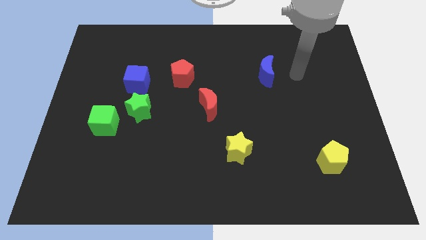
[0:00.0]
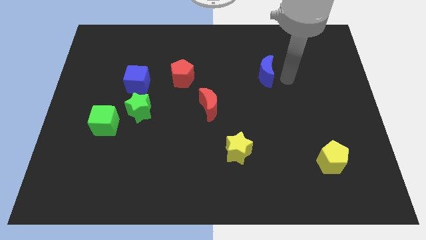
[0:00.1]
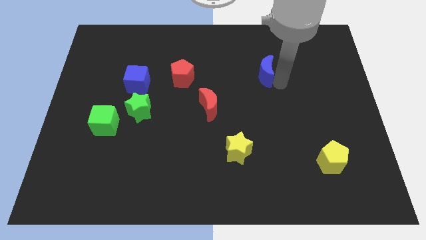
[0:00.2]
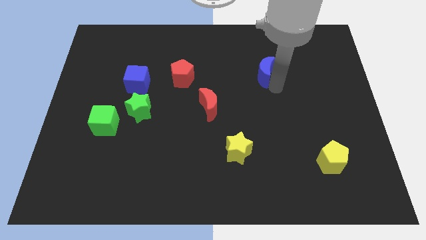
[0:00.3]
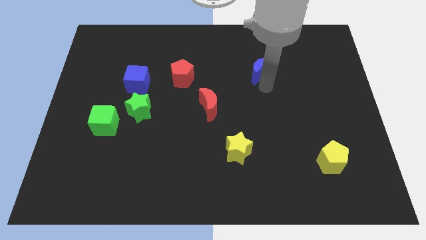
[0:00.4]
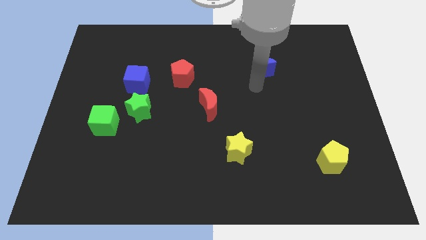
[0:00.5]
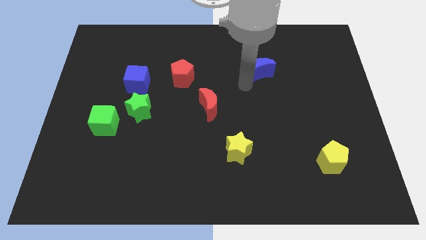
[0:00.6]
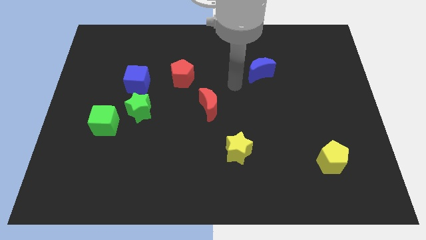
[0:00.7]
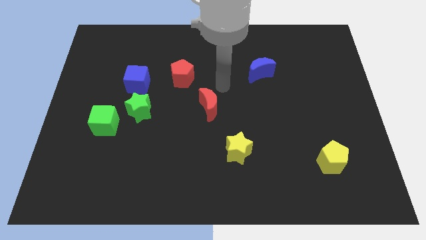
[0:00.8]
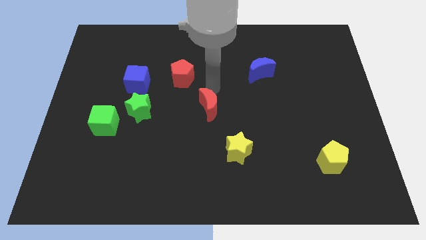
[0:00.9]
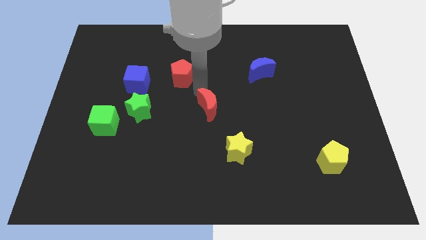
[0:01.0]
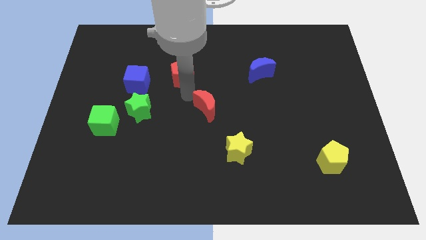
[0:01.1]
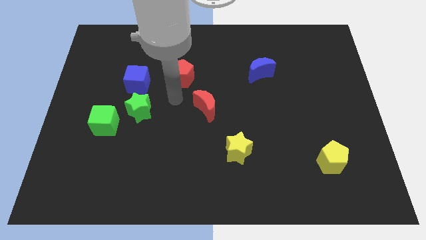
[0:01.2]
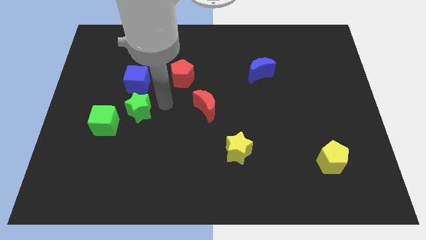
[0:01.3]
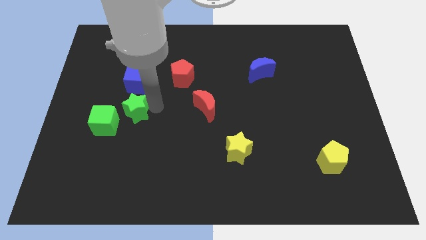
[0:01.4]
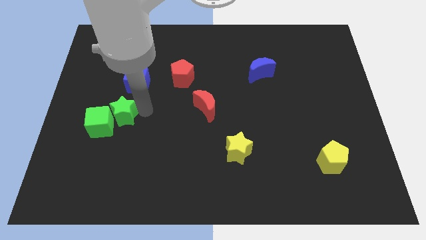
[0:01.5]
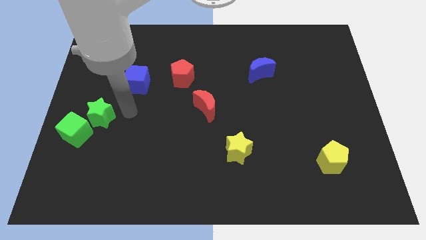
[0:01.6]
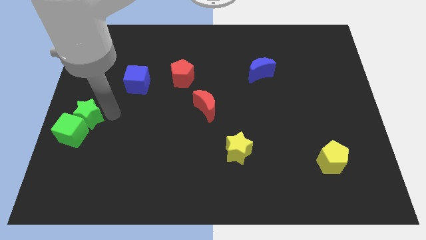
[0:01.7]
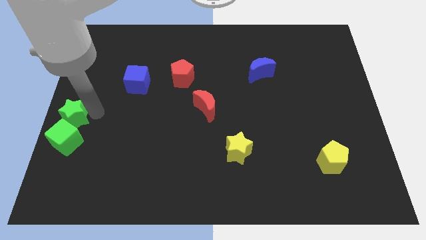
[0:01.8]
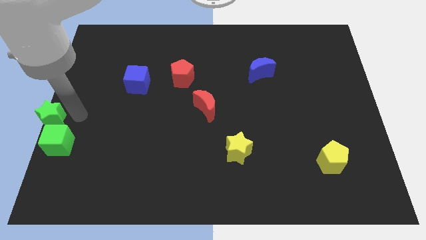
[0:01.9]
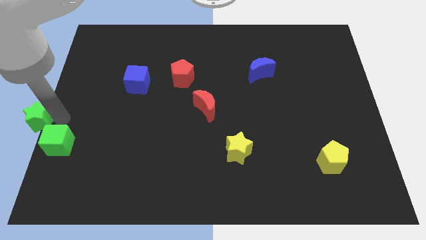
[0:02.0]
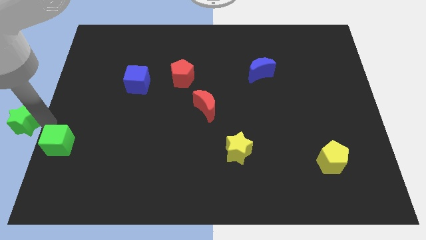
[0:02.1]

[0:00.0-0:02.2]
pull the green cube apart from the green star

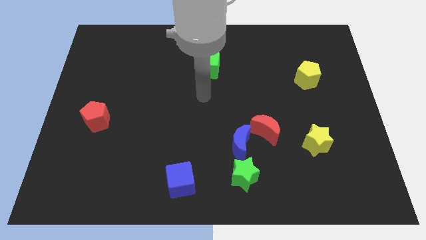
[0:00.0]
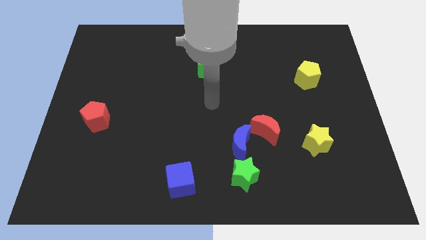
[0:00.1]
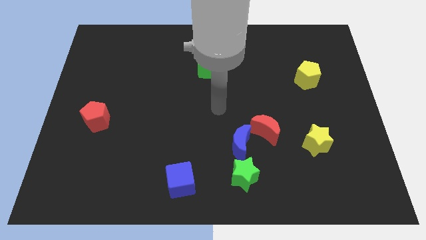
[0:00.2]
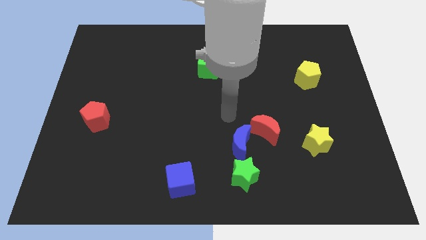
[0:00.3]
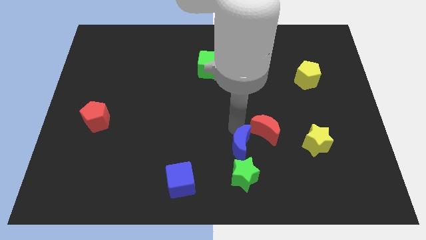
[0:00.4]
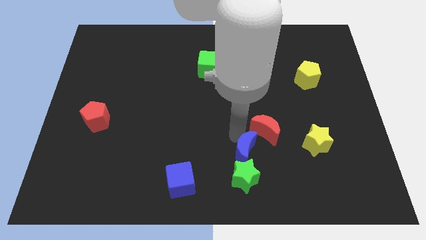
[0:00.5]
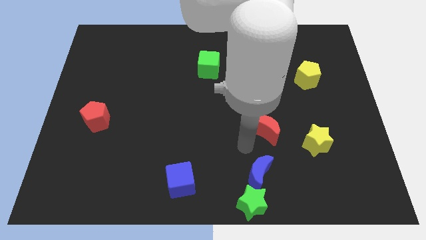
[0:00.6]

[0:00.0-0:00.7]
move the red moon away from the blue moon

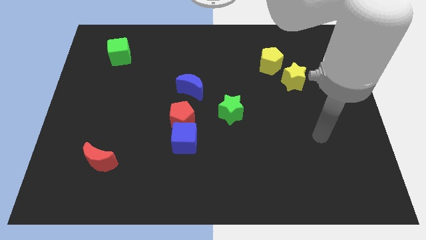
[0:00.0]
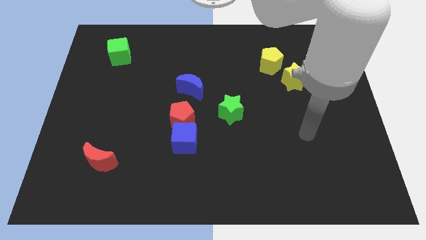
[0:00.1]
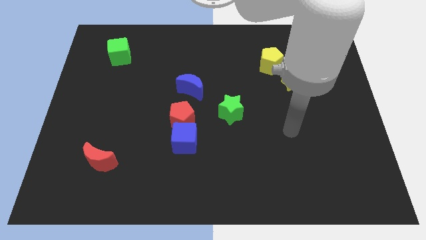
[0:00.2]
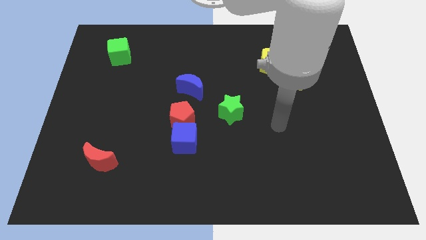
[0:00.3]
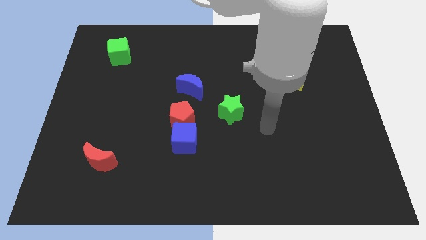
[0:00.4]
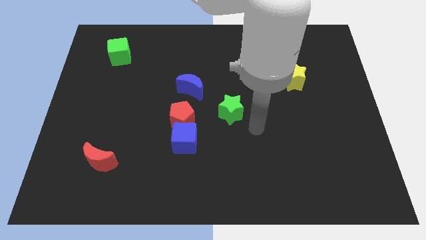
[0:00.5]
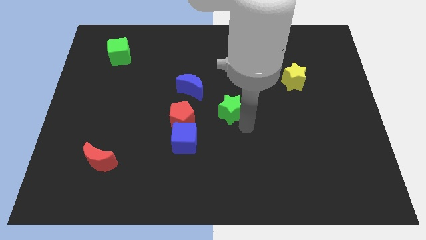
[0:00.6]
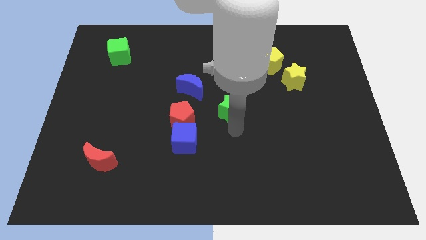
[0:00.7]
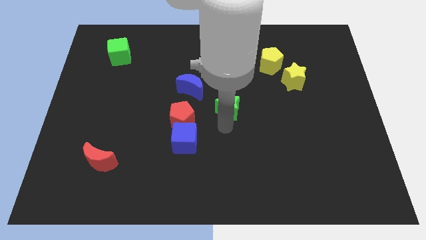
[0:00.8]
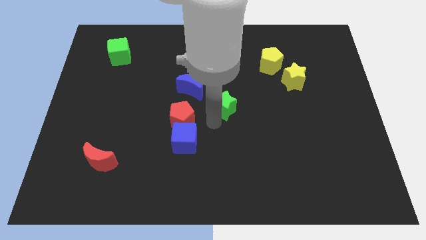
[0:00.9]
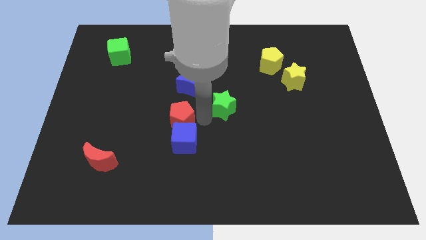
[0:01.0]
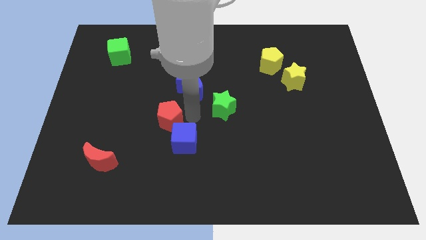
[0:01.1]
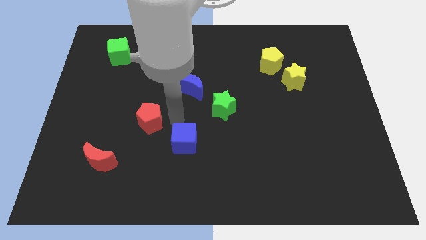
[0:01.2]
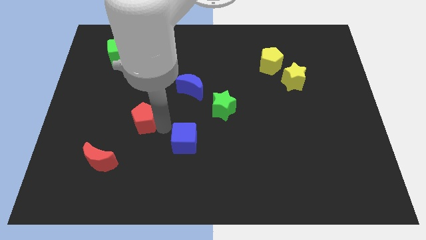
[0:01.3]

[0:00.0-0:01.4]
pull the blue cube apart from the red pentagon

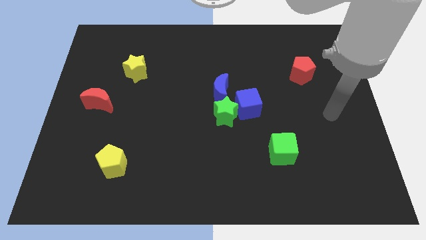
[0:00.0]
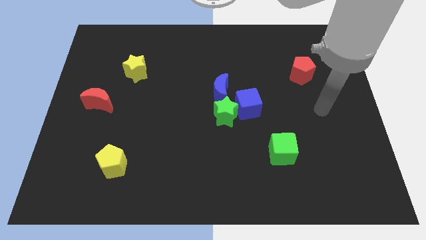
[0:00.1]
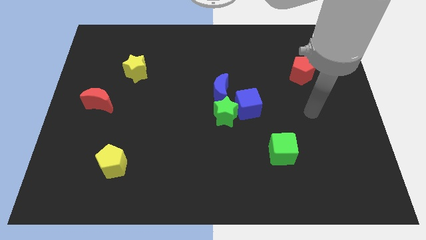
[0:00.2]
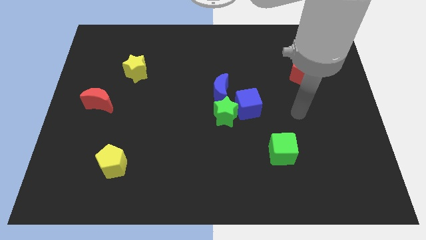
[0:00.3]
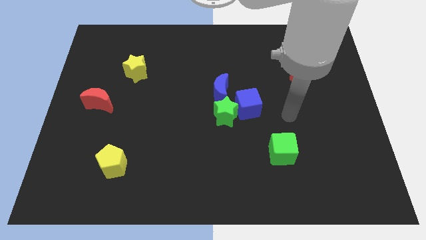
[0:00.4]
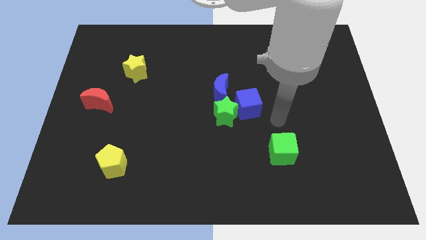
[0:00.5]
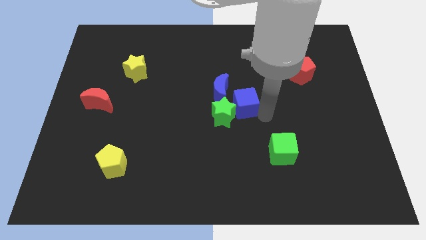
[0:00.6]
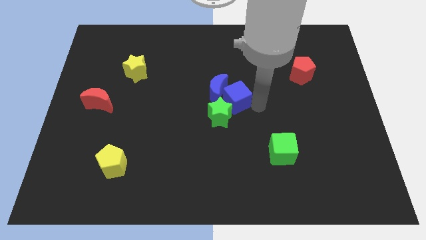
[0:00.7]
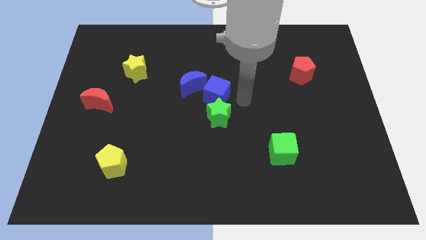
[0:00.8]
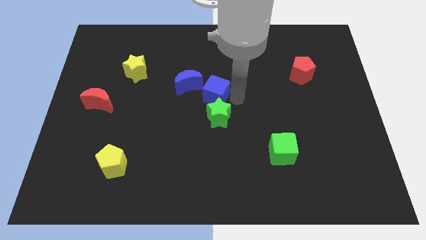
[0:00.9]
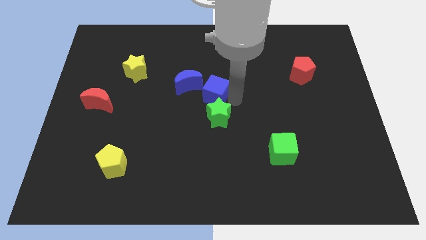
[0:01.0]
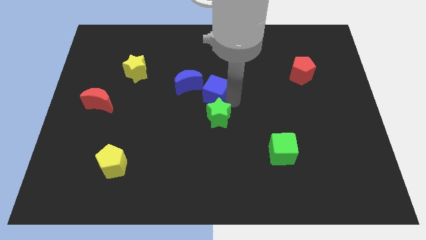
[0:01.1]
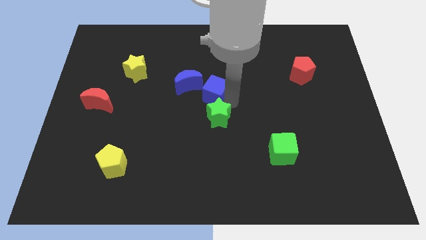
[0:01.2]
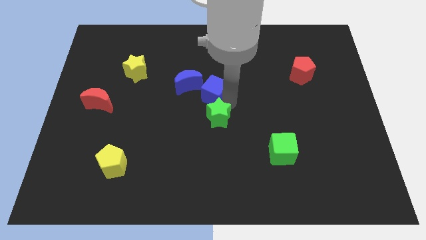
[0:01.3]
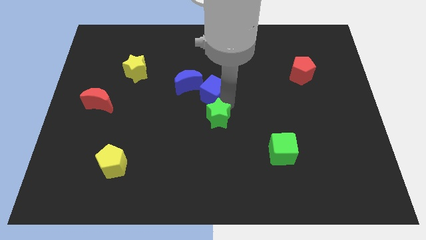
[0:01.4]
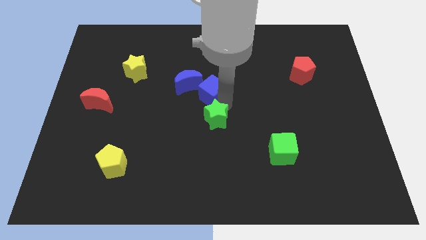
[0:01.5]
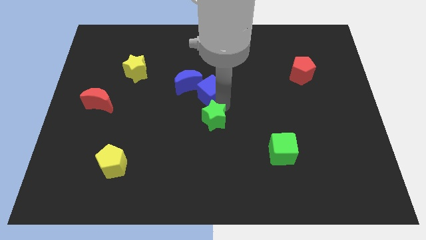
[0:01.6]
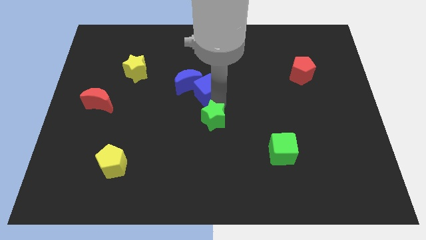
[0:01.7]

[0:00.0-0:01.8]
separate the green star from the blue cube and blue moon

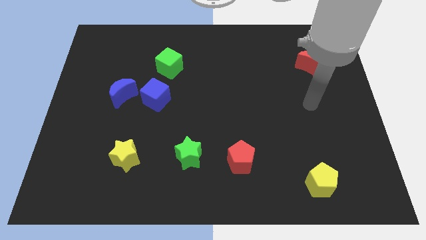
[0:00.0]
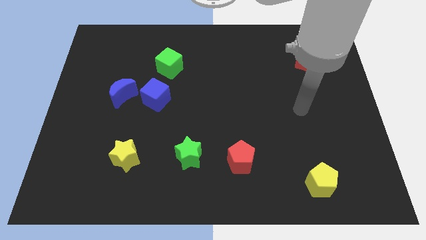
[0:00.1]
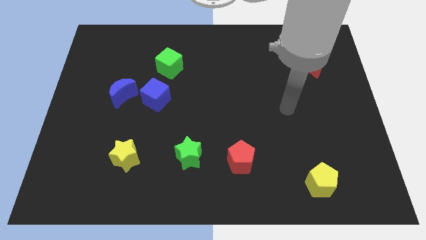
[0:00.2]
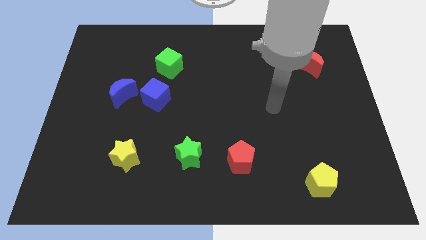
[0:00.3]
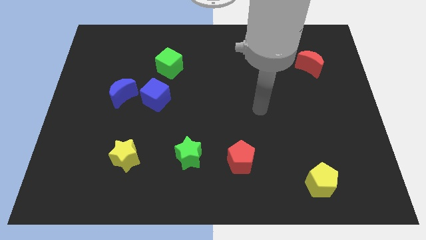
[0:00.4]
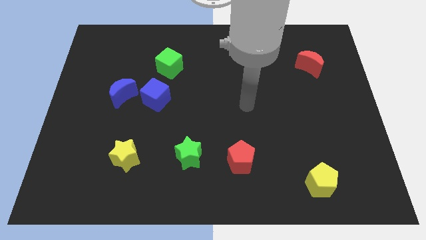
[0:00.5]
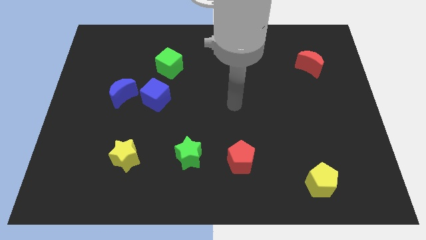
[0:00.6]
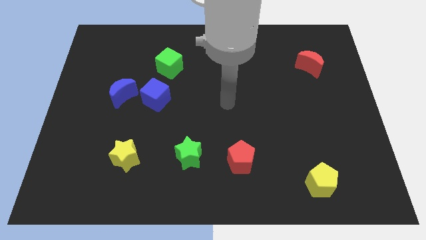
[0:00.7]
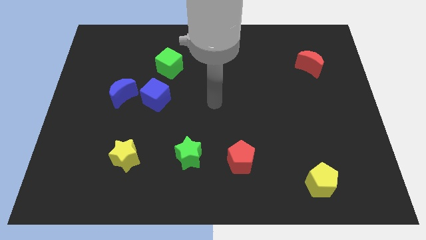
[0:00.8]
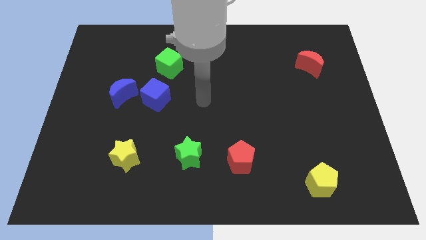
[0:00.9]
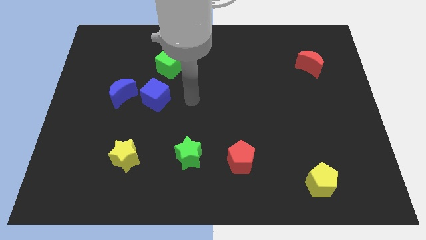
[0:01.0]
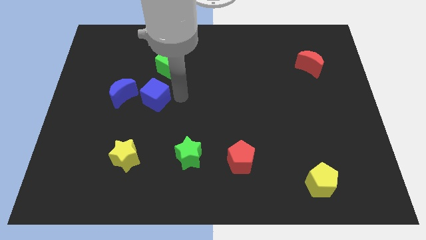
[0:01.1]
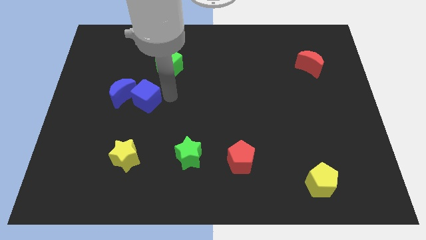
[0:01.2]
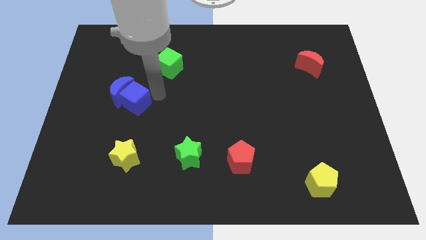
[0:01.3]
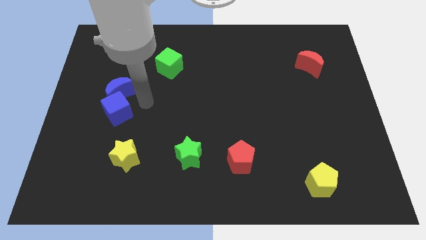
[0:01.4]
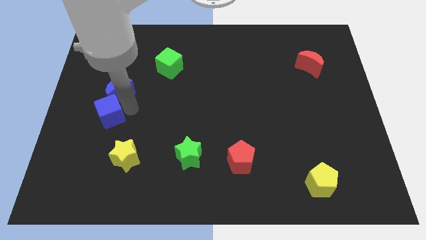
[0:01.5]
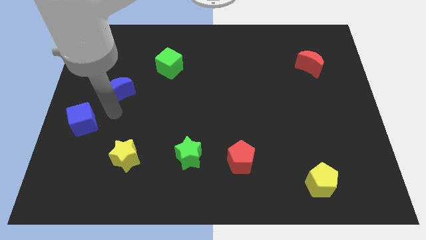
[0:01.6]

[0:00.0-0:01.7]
move the blue moon away from the blue cube

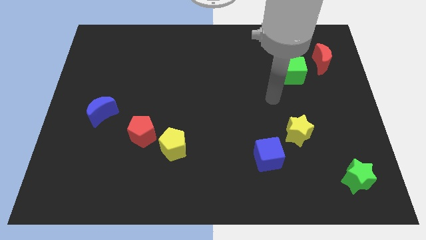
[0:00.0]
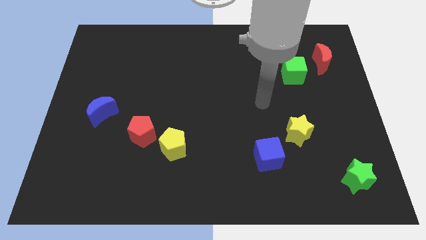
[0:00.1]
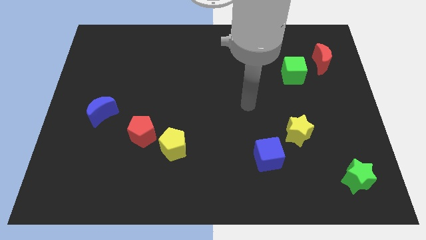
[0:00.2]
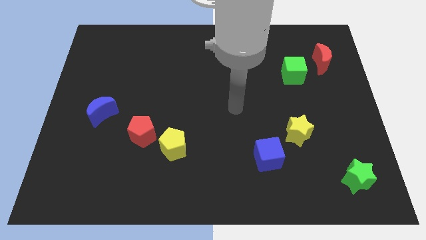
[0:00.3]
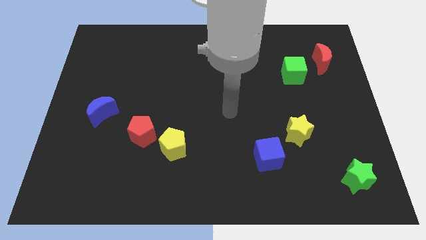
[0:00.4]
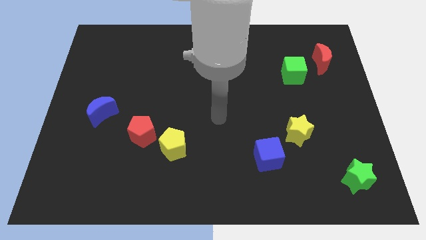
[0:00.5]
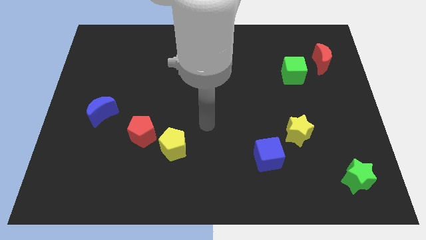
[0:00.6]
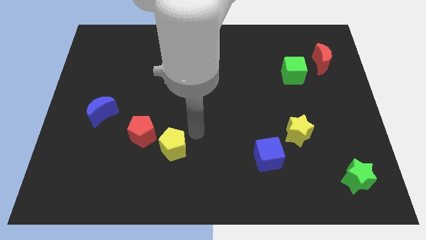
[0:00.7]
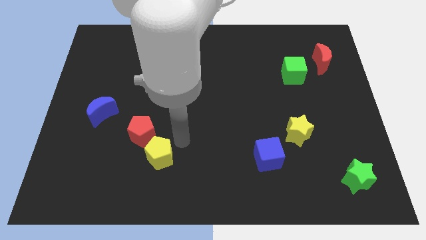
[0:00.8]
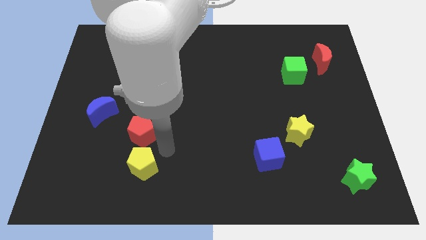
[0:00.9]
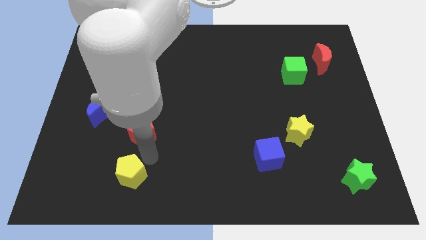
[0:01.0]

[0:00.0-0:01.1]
separate the red pentagon from the yellow pentagon

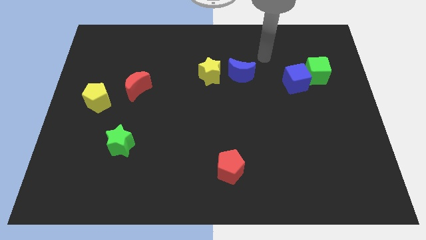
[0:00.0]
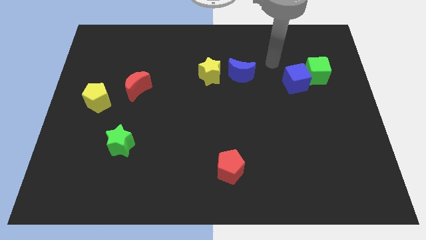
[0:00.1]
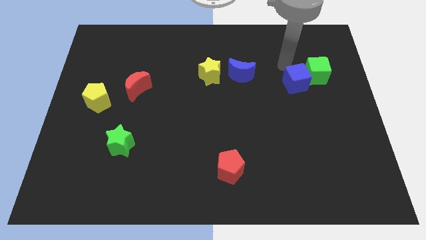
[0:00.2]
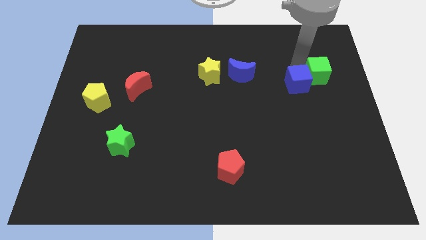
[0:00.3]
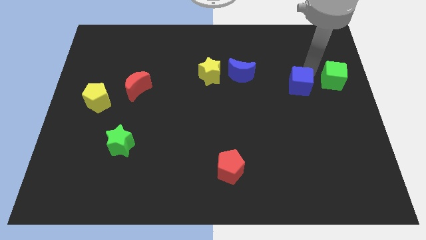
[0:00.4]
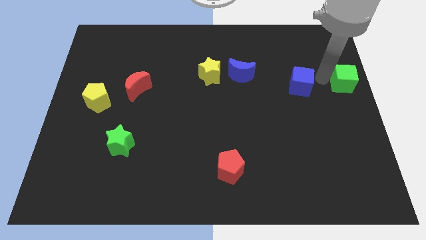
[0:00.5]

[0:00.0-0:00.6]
pull the blue cube apart from the green cube

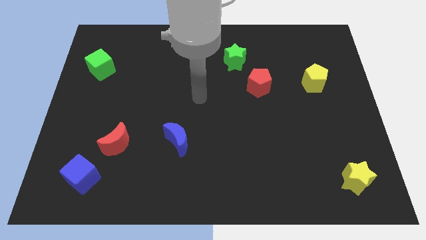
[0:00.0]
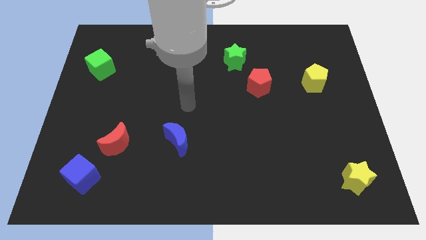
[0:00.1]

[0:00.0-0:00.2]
move the red moon away from the blue cube
